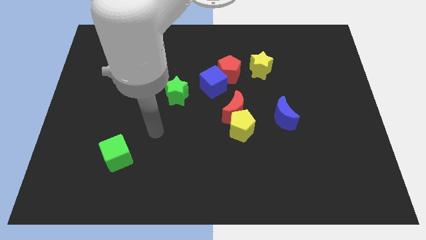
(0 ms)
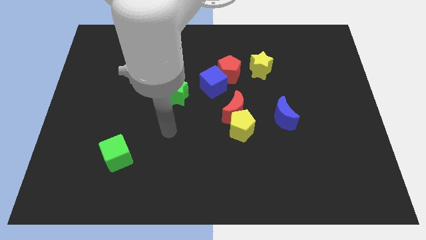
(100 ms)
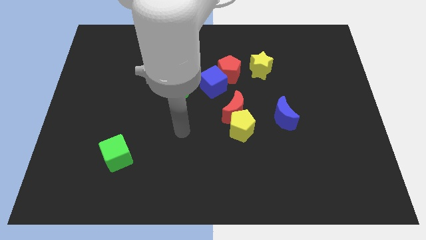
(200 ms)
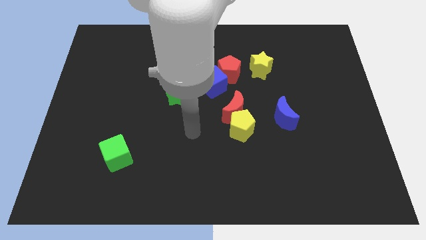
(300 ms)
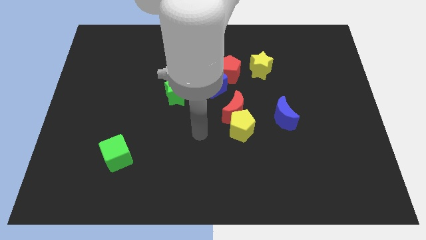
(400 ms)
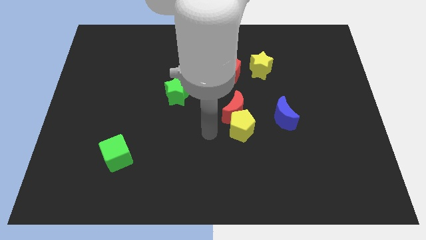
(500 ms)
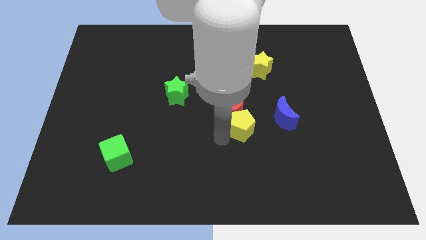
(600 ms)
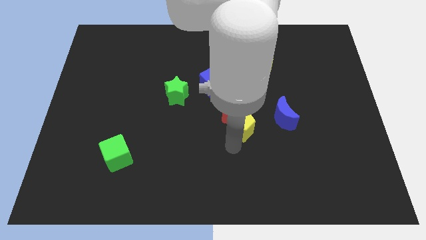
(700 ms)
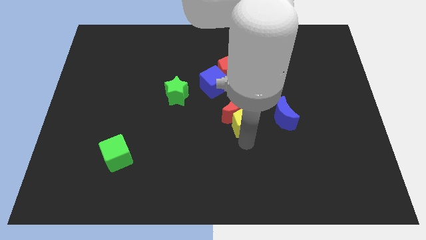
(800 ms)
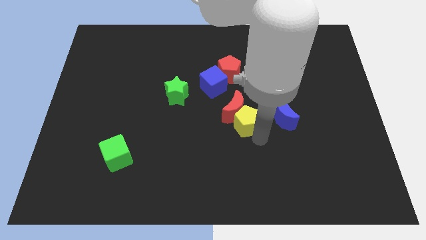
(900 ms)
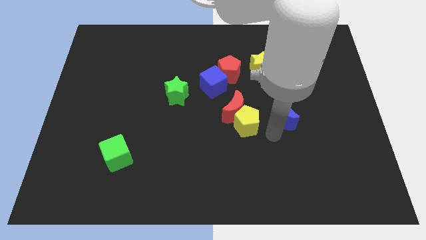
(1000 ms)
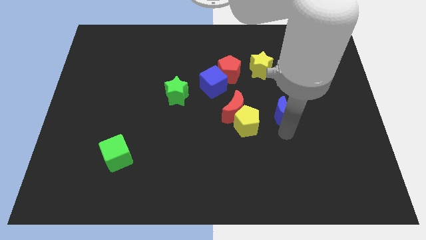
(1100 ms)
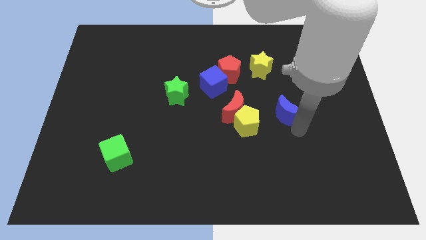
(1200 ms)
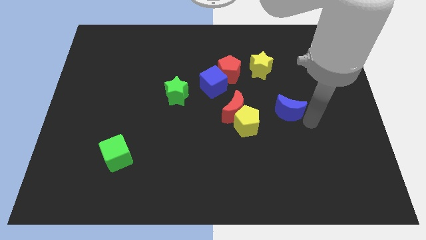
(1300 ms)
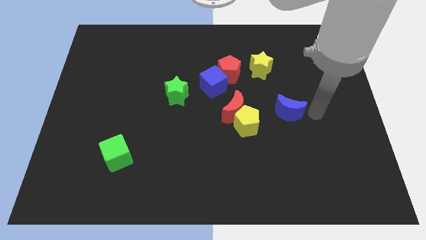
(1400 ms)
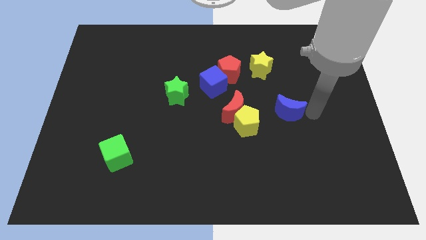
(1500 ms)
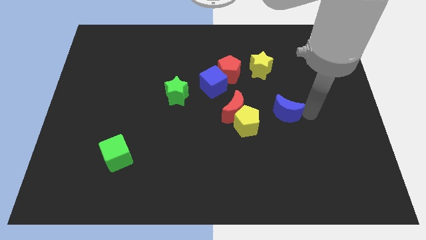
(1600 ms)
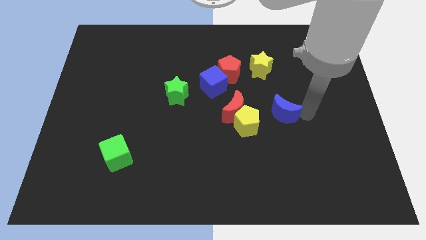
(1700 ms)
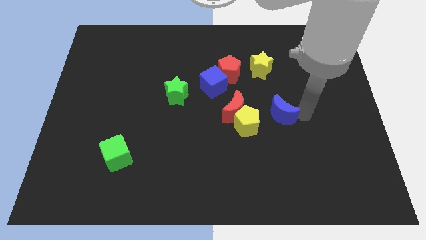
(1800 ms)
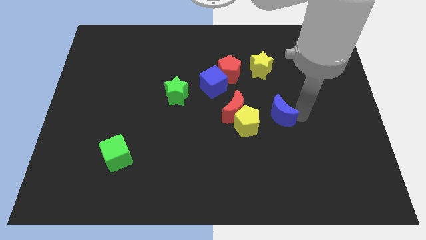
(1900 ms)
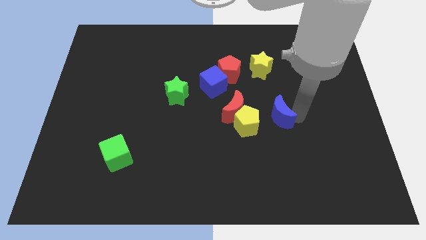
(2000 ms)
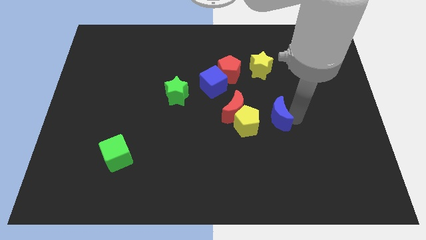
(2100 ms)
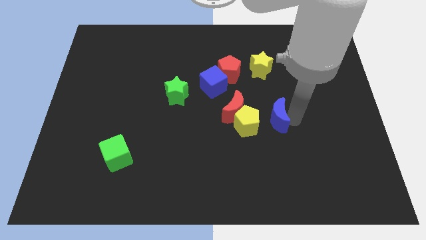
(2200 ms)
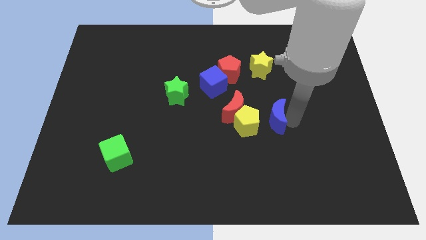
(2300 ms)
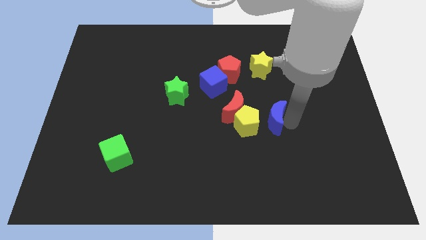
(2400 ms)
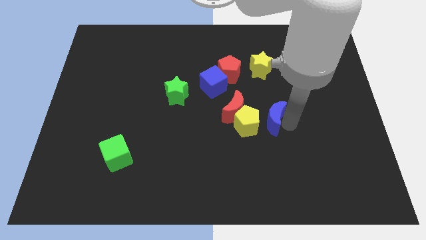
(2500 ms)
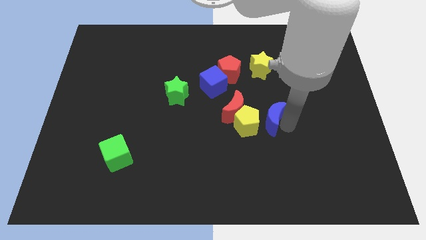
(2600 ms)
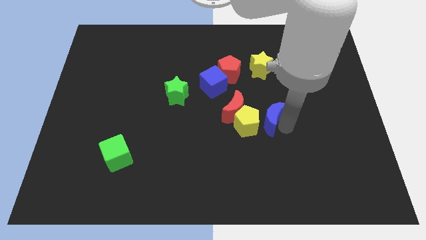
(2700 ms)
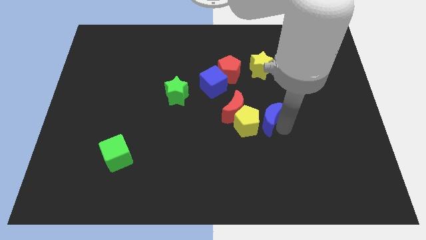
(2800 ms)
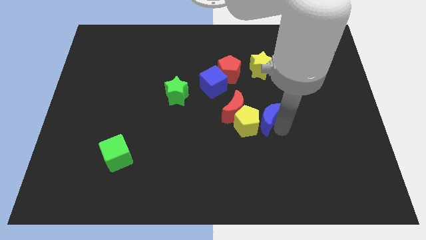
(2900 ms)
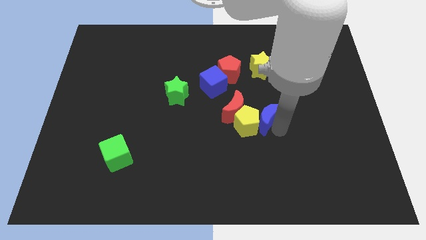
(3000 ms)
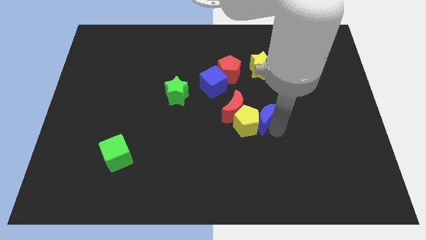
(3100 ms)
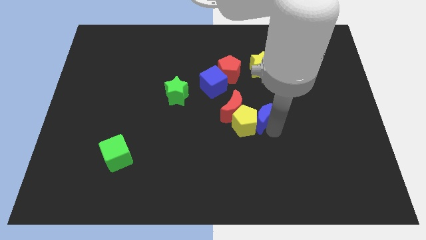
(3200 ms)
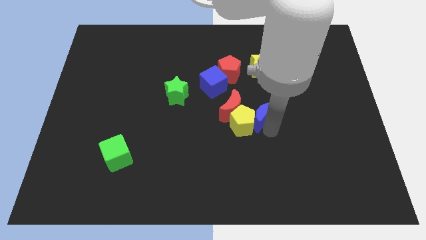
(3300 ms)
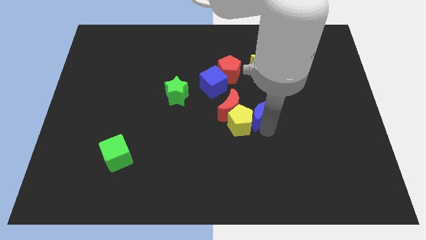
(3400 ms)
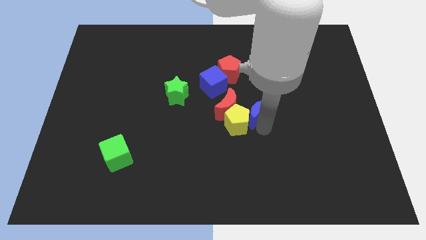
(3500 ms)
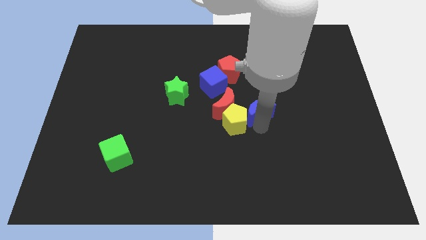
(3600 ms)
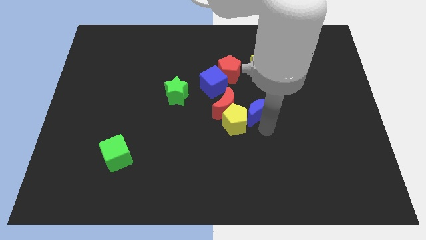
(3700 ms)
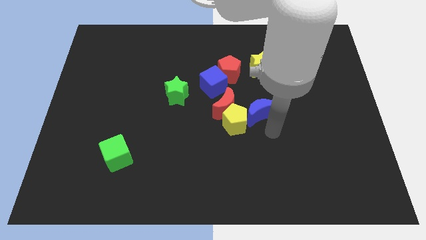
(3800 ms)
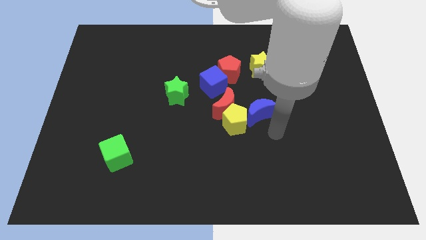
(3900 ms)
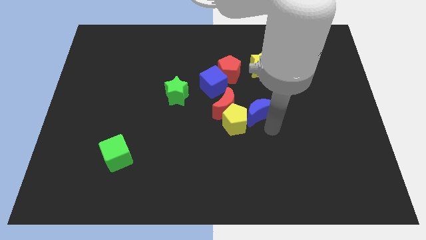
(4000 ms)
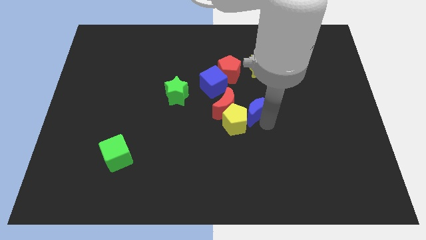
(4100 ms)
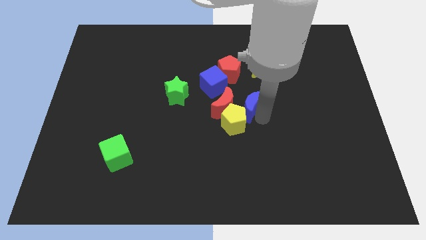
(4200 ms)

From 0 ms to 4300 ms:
slightly move the blue moon left

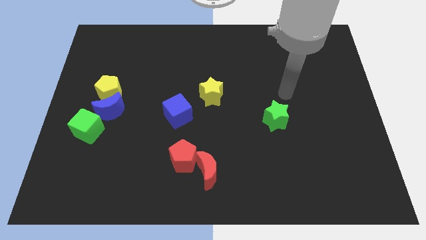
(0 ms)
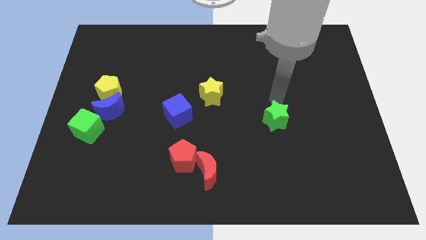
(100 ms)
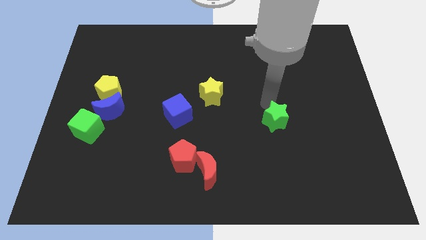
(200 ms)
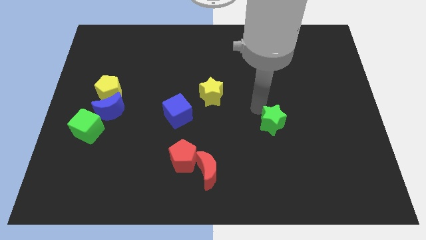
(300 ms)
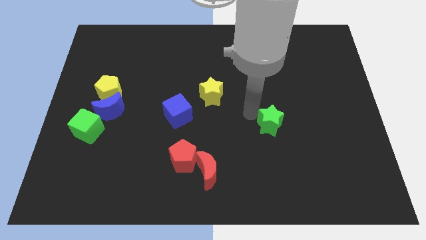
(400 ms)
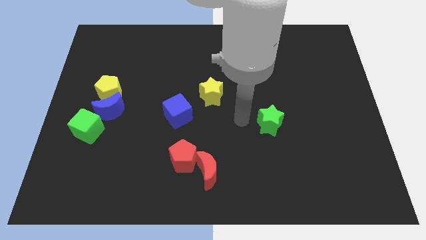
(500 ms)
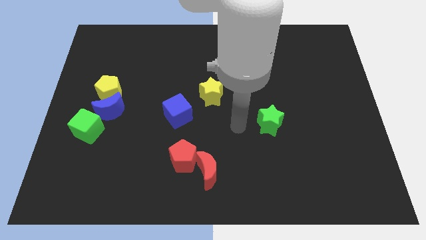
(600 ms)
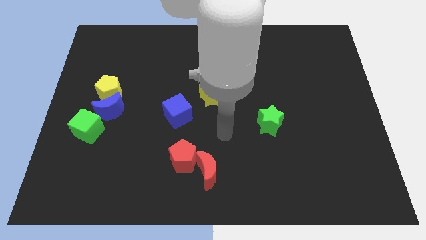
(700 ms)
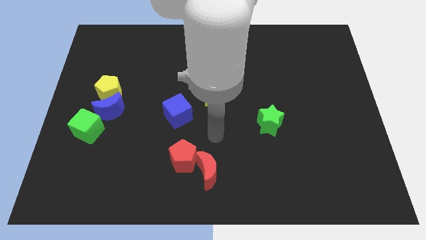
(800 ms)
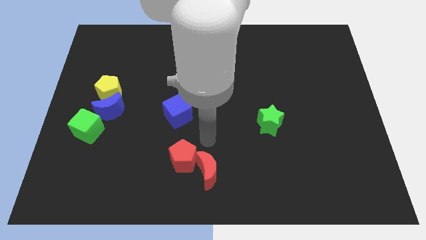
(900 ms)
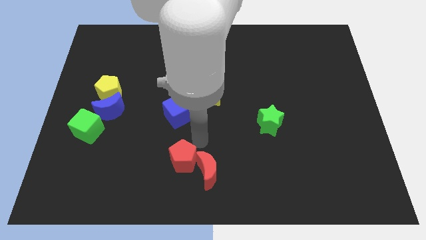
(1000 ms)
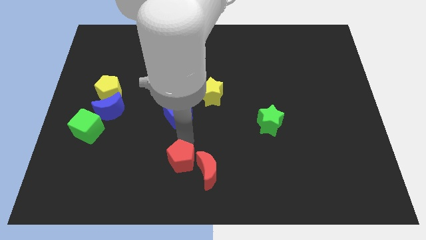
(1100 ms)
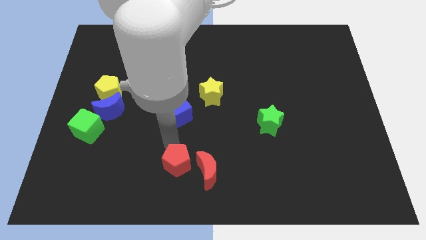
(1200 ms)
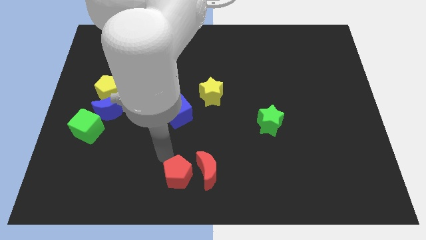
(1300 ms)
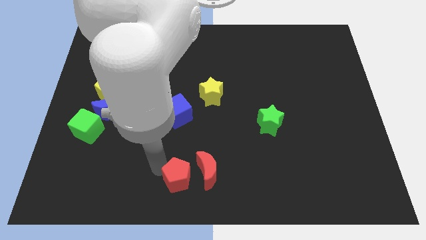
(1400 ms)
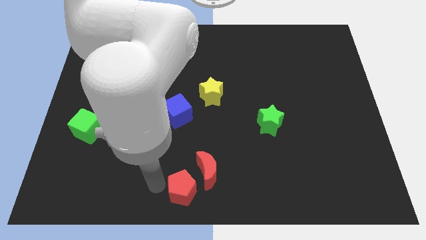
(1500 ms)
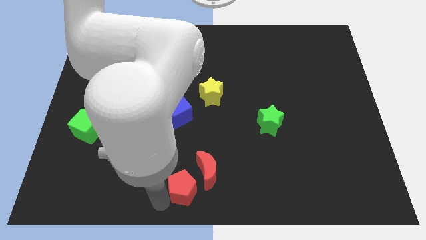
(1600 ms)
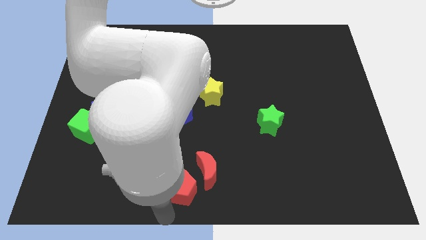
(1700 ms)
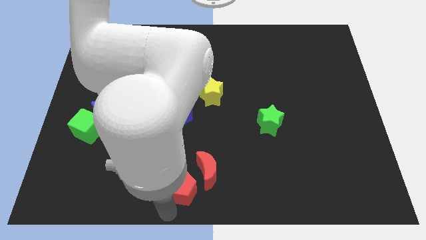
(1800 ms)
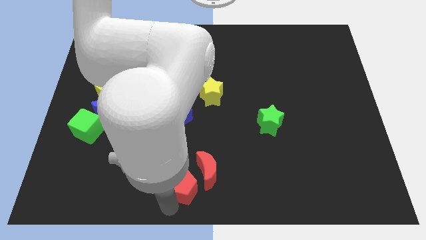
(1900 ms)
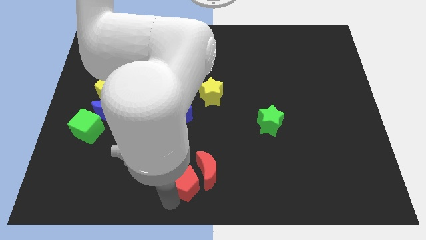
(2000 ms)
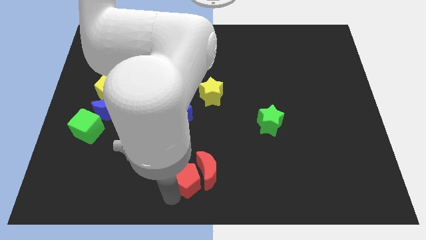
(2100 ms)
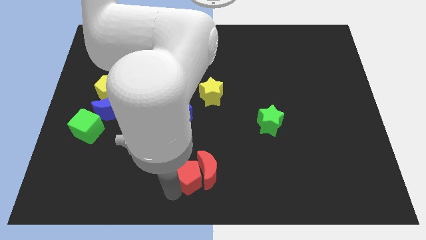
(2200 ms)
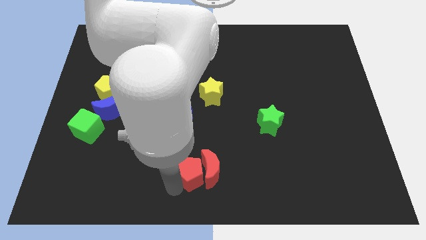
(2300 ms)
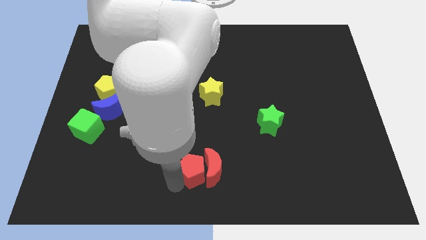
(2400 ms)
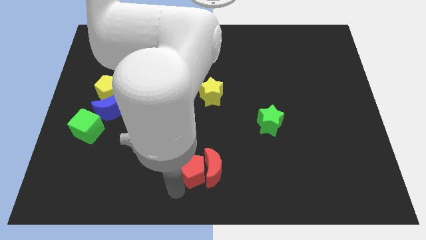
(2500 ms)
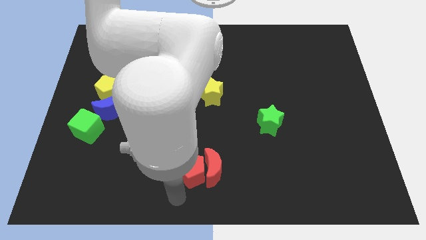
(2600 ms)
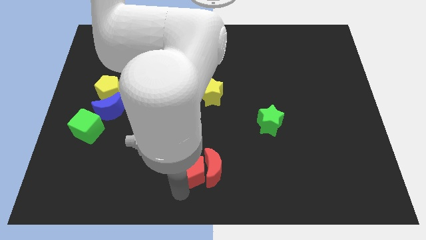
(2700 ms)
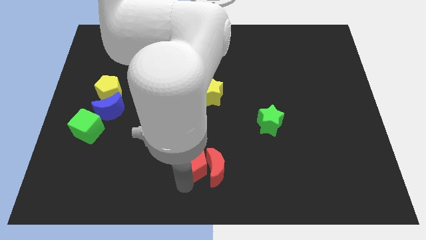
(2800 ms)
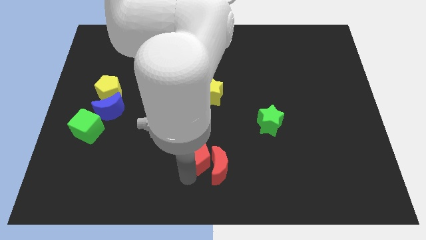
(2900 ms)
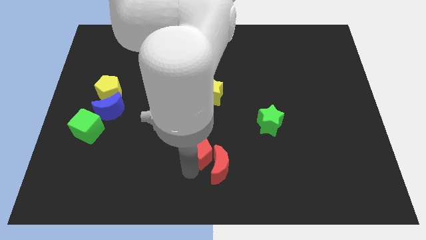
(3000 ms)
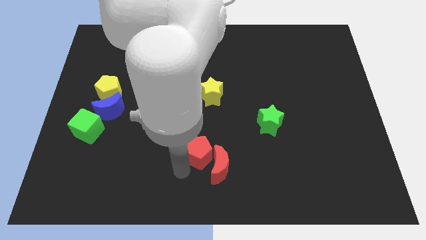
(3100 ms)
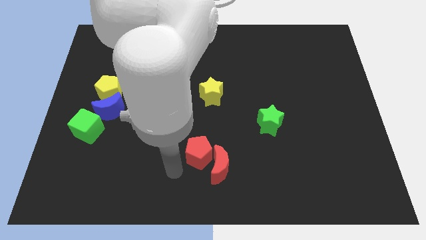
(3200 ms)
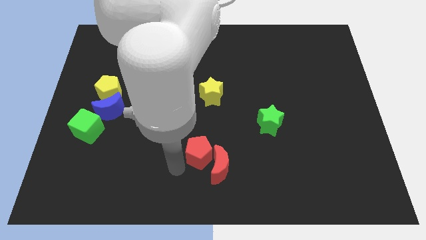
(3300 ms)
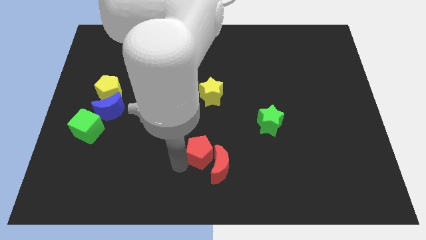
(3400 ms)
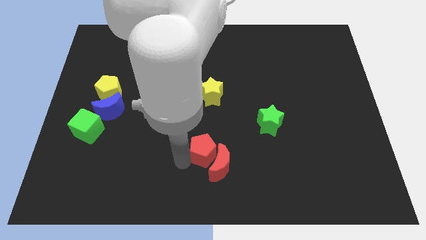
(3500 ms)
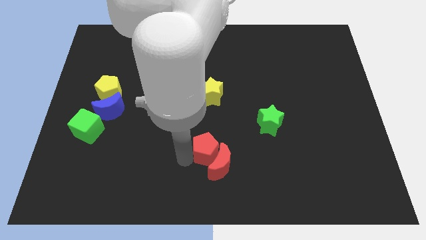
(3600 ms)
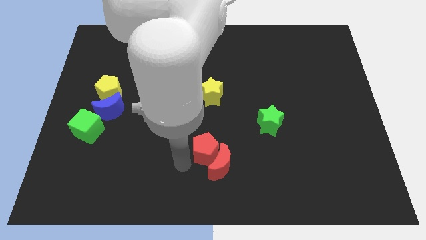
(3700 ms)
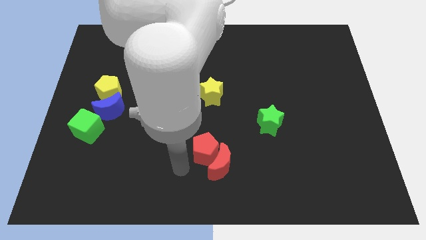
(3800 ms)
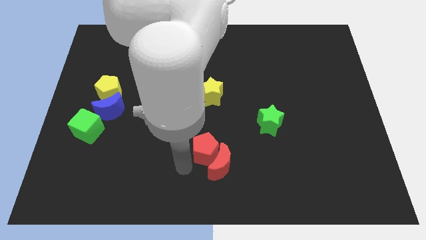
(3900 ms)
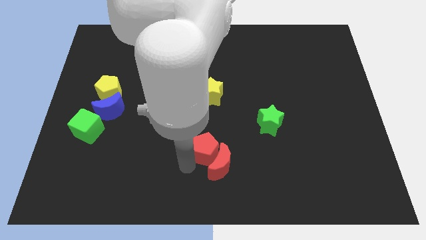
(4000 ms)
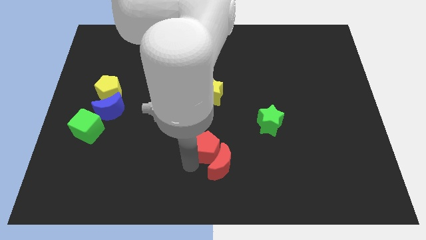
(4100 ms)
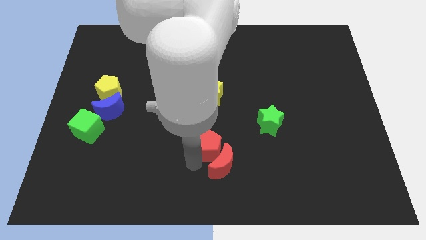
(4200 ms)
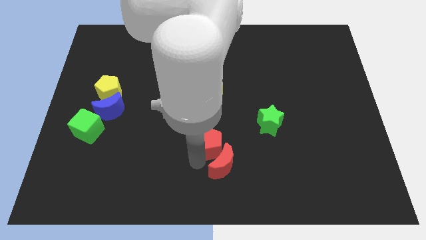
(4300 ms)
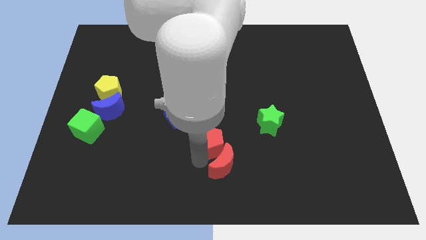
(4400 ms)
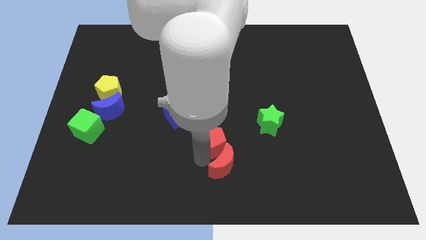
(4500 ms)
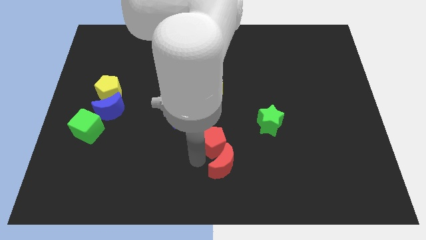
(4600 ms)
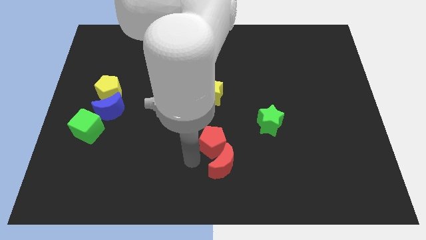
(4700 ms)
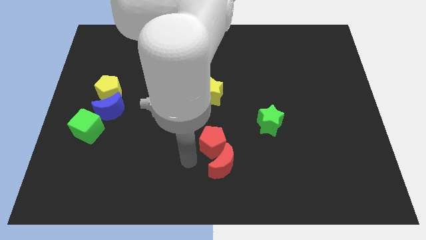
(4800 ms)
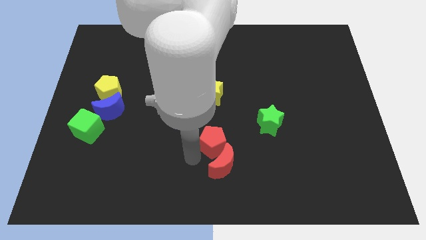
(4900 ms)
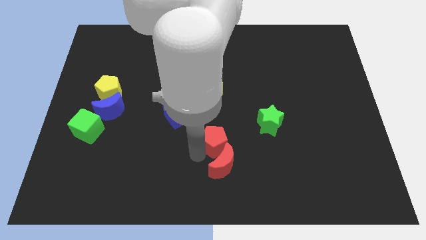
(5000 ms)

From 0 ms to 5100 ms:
push the red pentagon upwards and to the right diagonally a little
